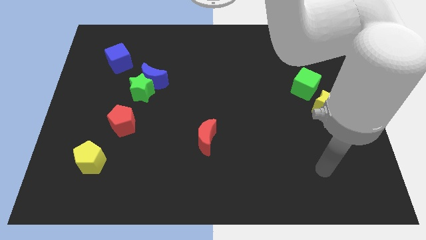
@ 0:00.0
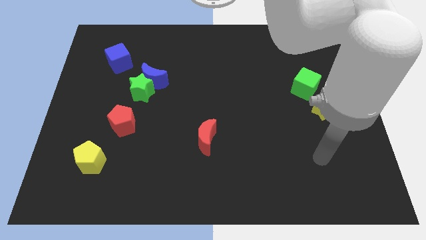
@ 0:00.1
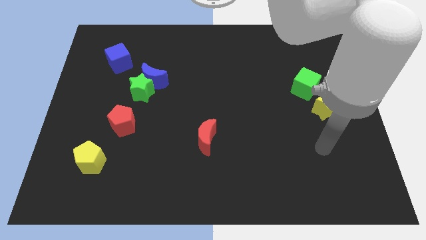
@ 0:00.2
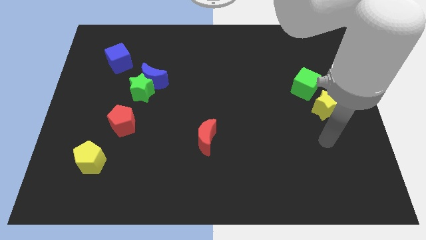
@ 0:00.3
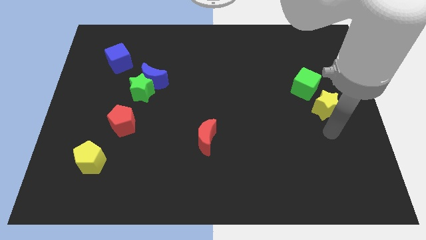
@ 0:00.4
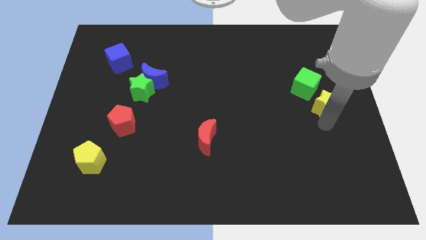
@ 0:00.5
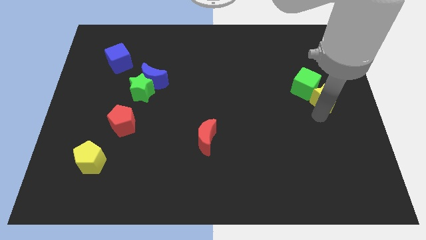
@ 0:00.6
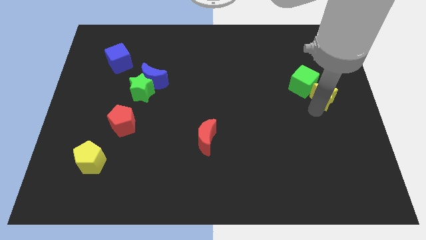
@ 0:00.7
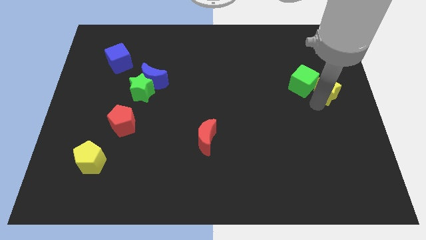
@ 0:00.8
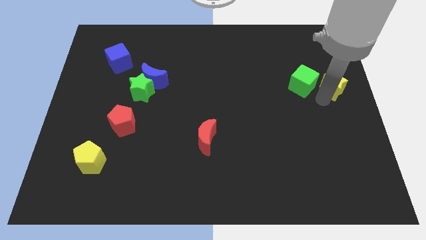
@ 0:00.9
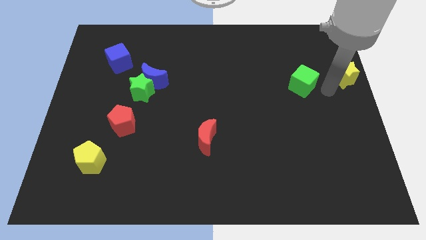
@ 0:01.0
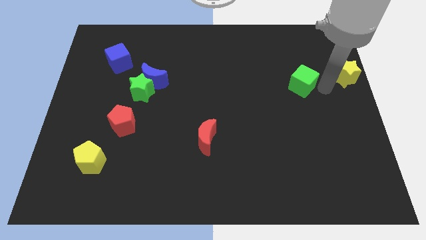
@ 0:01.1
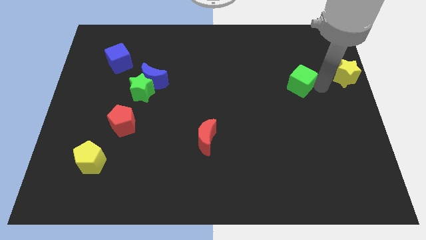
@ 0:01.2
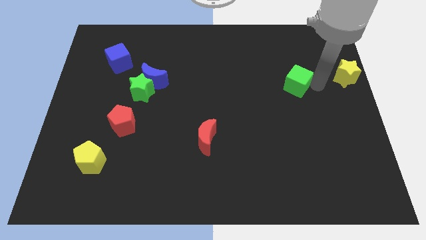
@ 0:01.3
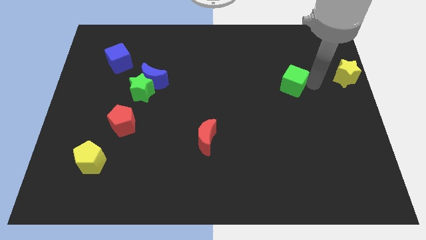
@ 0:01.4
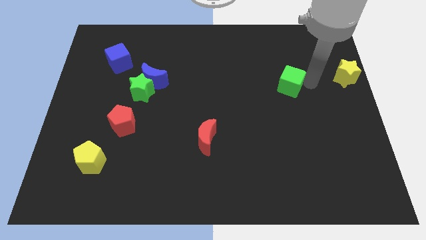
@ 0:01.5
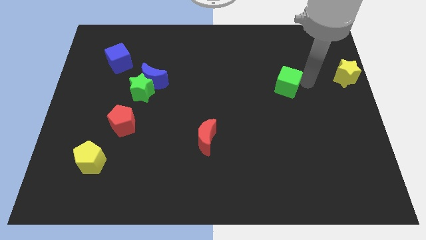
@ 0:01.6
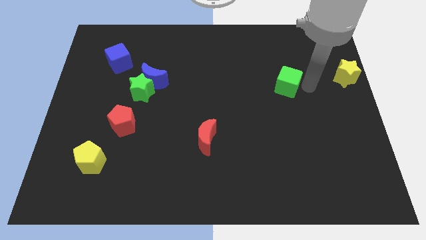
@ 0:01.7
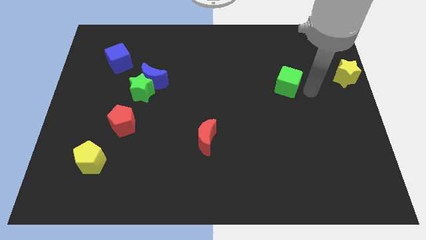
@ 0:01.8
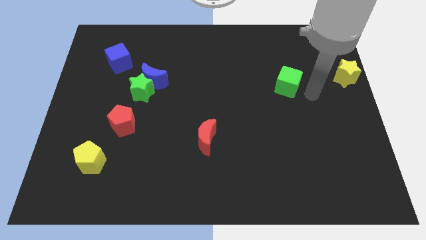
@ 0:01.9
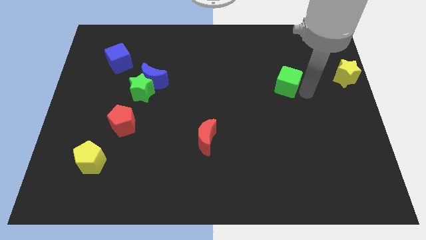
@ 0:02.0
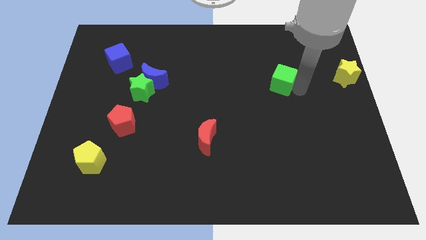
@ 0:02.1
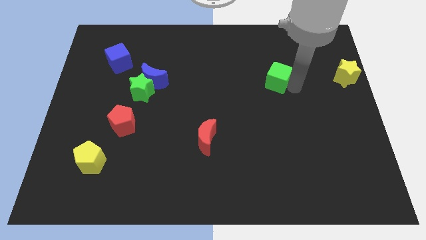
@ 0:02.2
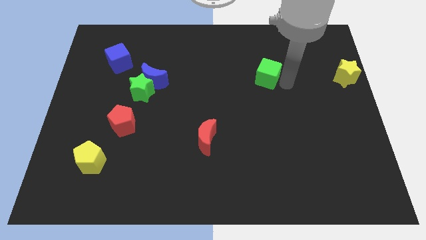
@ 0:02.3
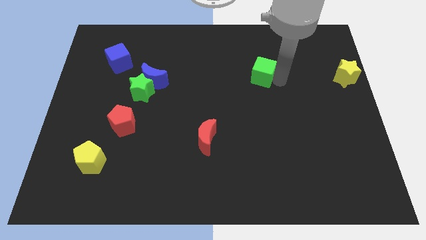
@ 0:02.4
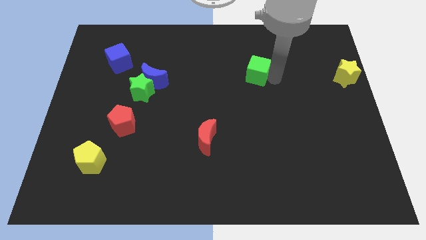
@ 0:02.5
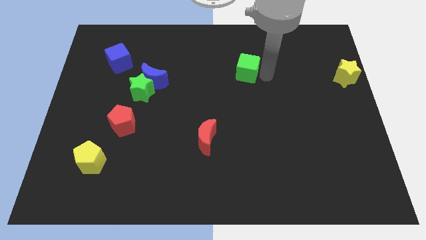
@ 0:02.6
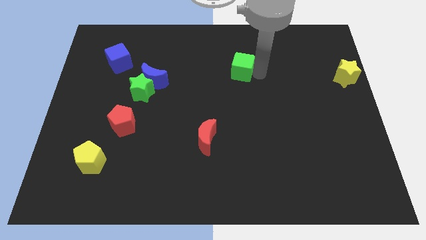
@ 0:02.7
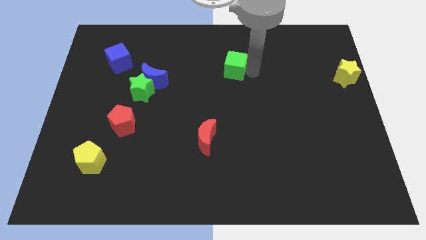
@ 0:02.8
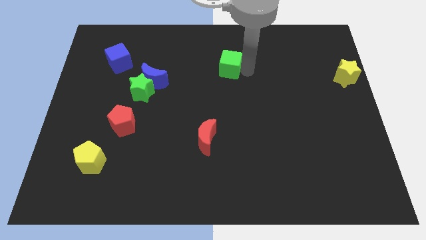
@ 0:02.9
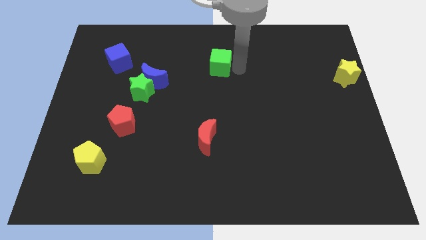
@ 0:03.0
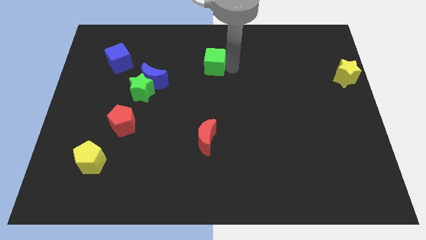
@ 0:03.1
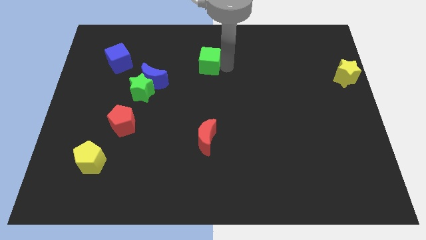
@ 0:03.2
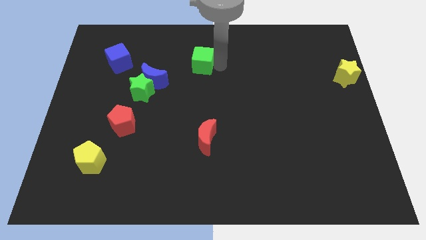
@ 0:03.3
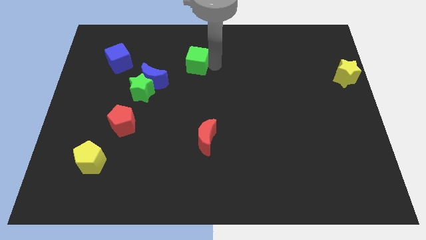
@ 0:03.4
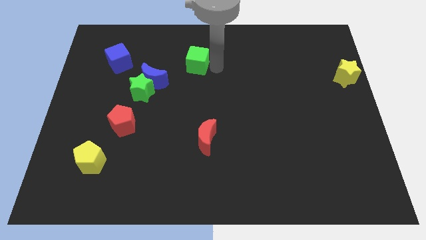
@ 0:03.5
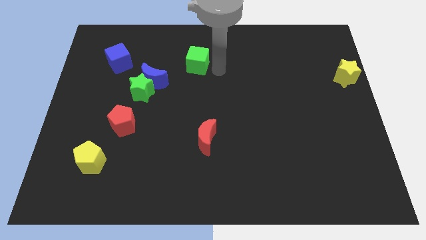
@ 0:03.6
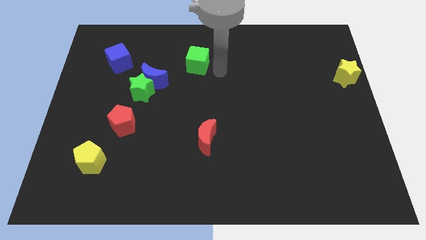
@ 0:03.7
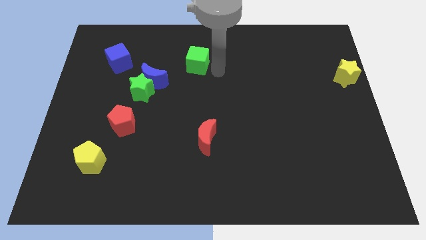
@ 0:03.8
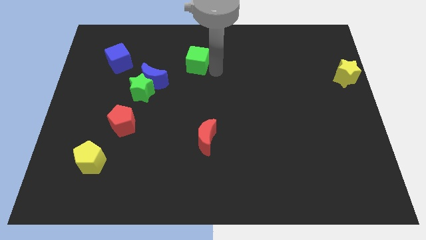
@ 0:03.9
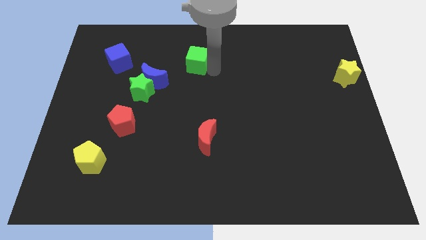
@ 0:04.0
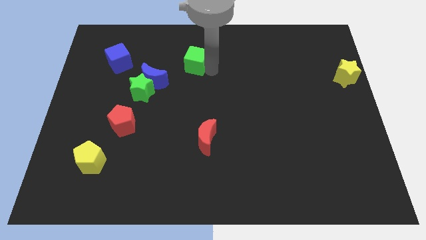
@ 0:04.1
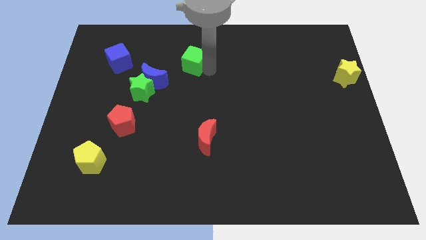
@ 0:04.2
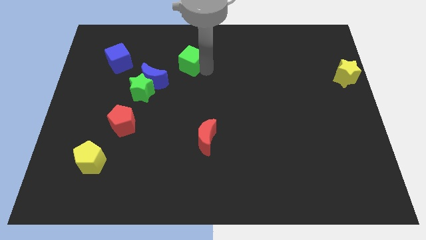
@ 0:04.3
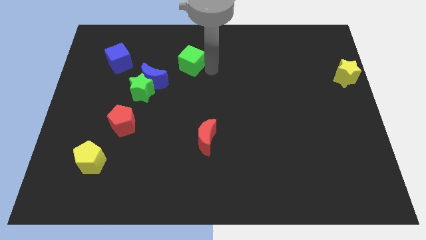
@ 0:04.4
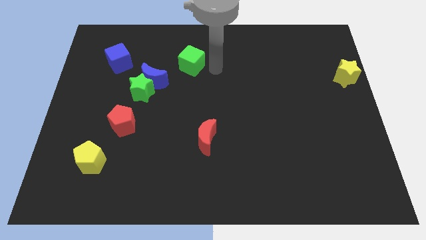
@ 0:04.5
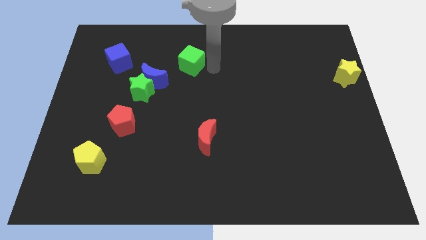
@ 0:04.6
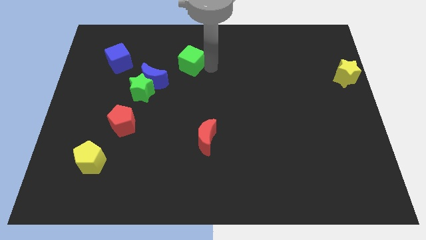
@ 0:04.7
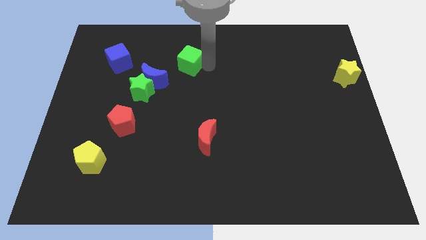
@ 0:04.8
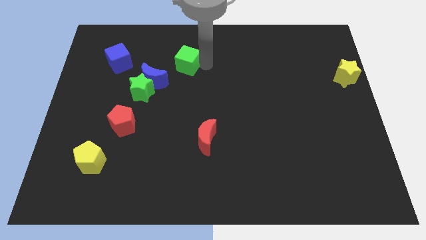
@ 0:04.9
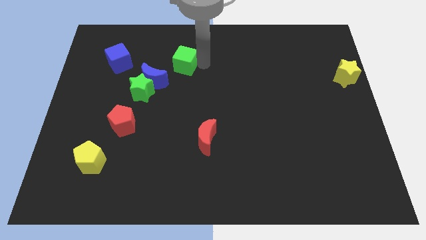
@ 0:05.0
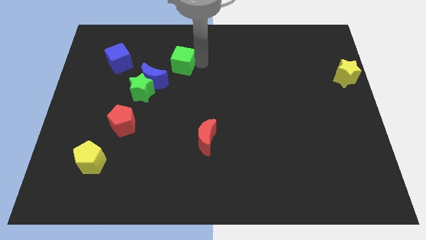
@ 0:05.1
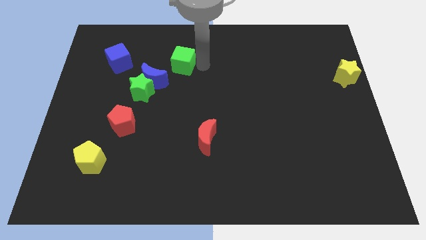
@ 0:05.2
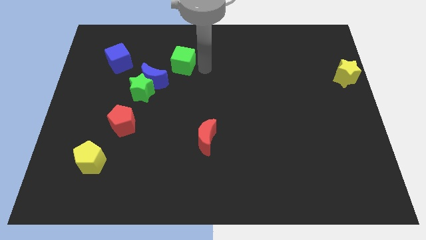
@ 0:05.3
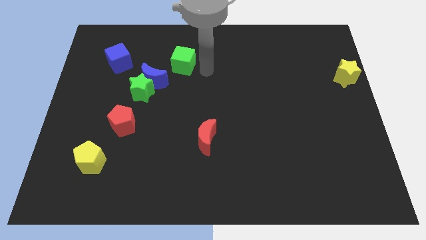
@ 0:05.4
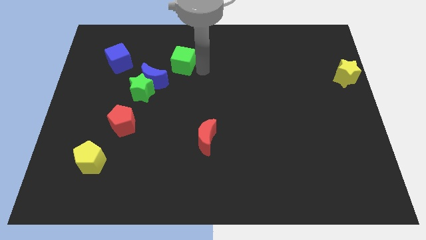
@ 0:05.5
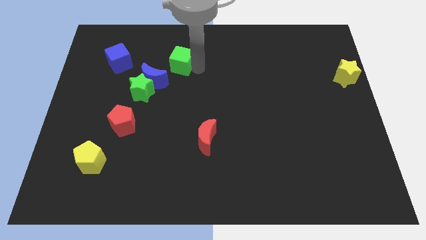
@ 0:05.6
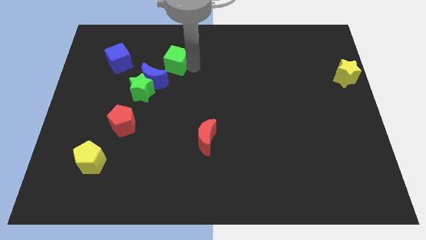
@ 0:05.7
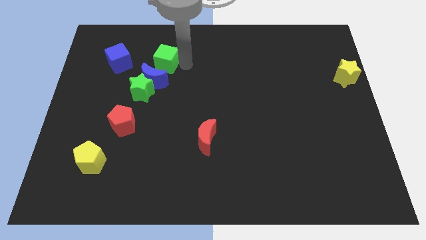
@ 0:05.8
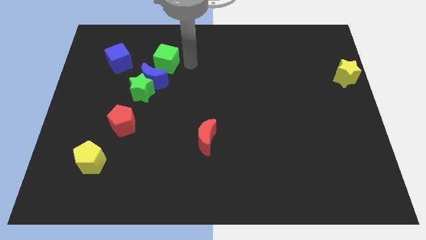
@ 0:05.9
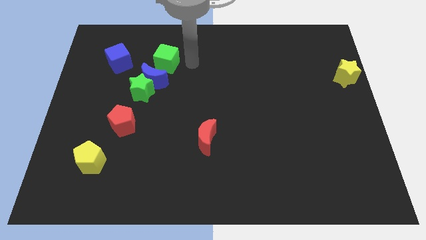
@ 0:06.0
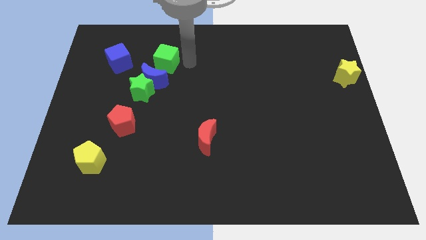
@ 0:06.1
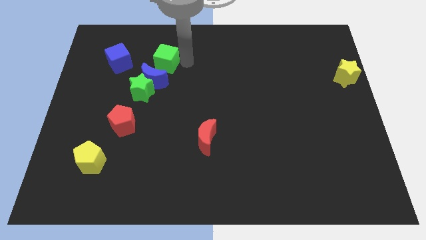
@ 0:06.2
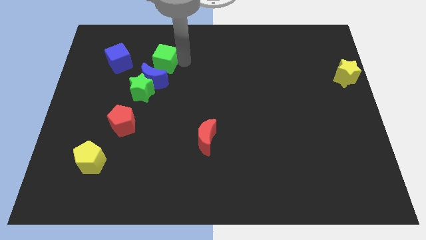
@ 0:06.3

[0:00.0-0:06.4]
move the green cube to the top of the green star
